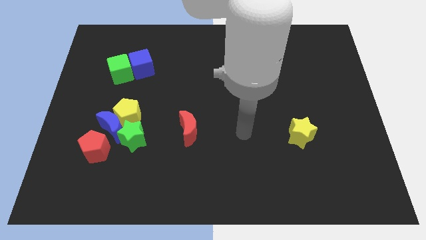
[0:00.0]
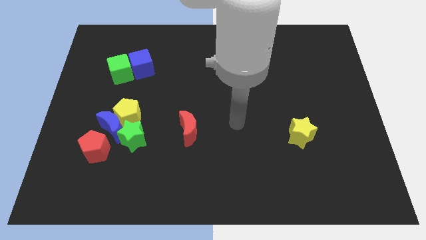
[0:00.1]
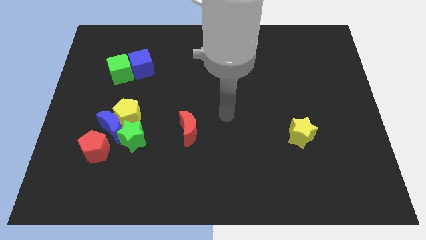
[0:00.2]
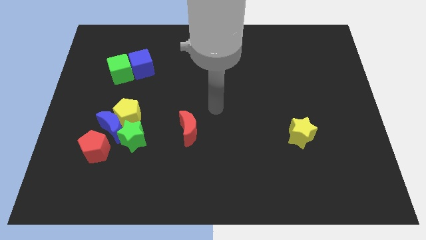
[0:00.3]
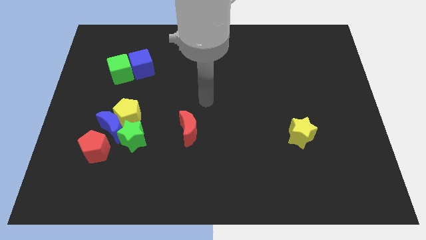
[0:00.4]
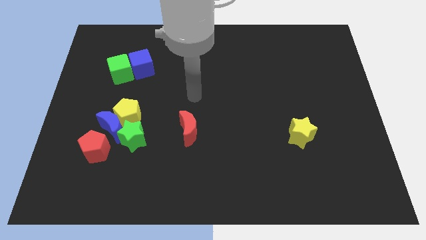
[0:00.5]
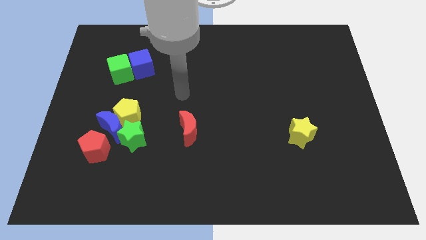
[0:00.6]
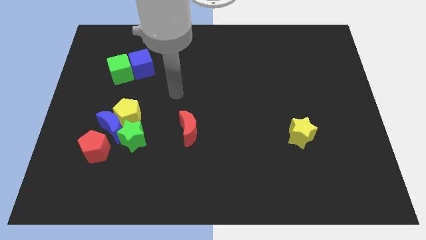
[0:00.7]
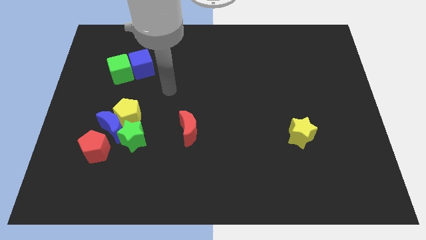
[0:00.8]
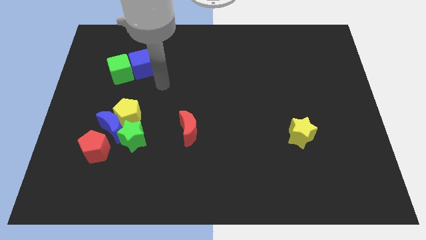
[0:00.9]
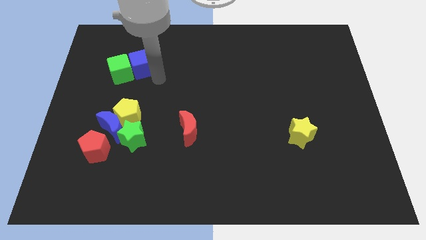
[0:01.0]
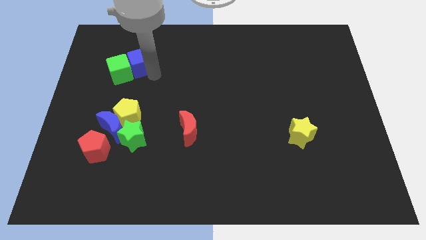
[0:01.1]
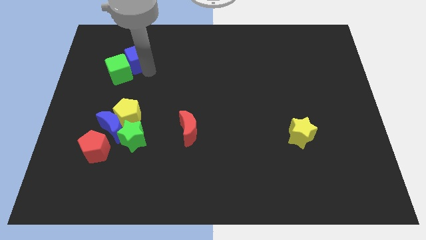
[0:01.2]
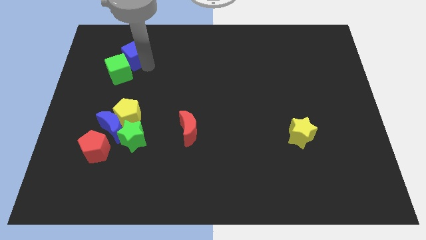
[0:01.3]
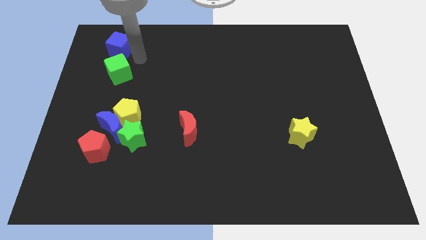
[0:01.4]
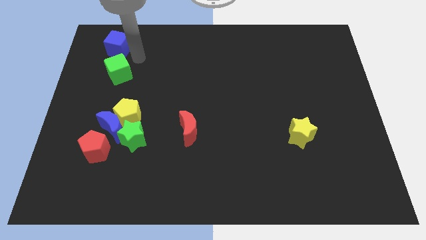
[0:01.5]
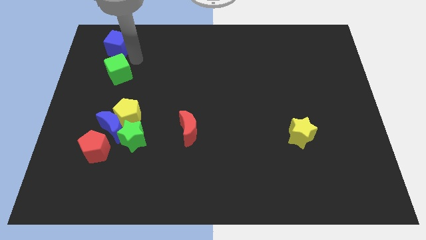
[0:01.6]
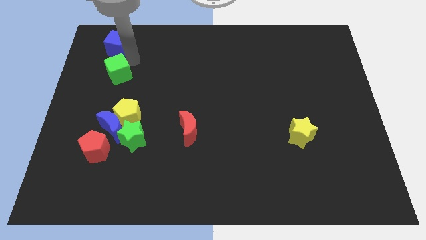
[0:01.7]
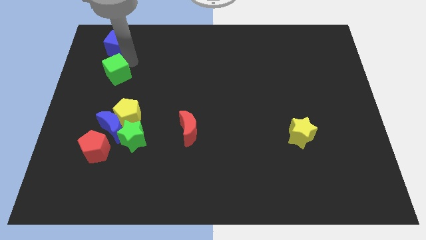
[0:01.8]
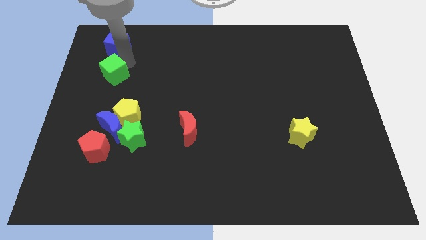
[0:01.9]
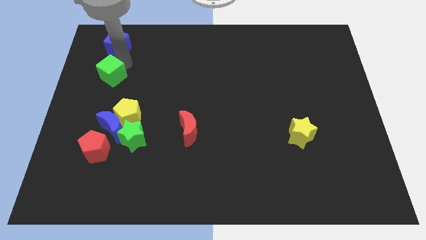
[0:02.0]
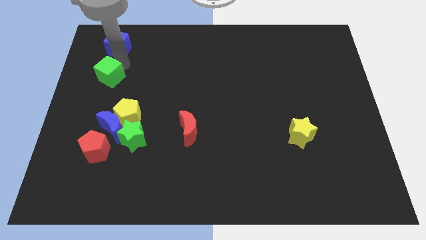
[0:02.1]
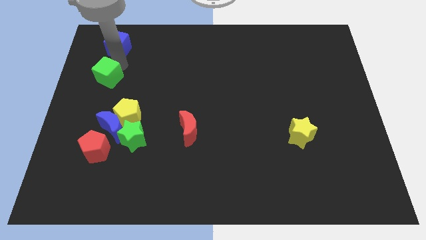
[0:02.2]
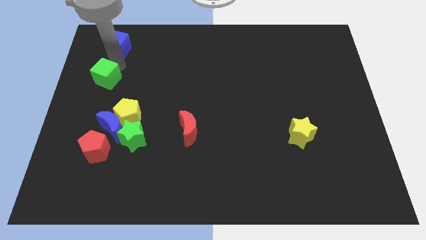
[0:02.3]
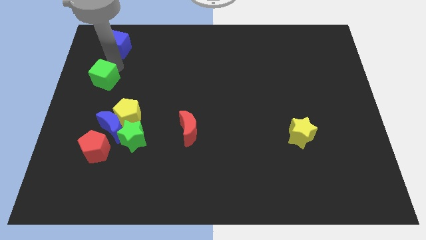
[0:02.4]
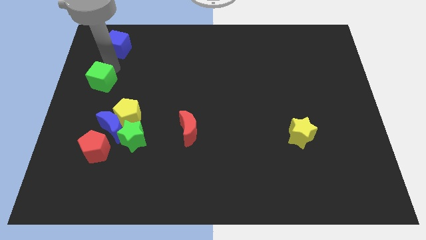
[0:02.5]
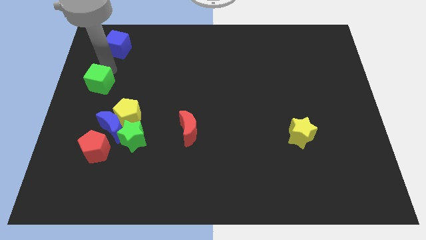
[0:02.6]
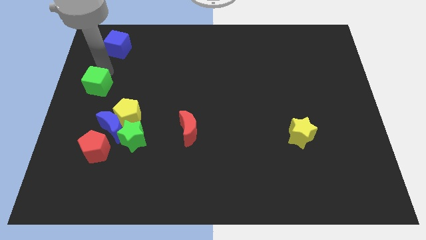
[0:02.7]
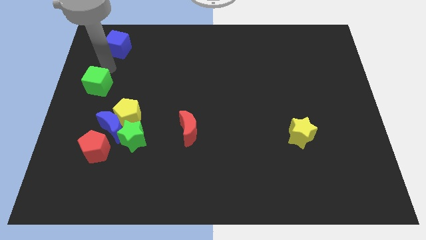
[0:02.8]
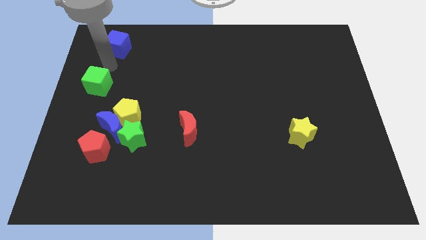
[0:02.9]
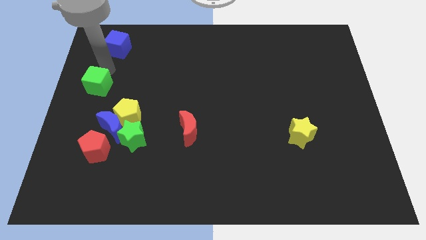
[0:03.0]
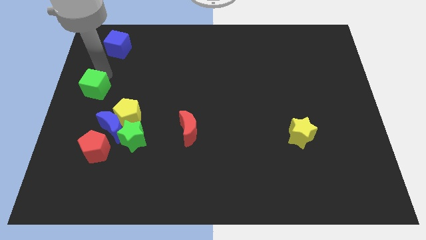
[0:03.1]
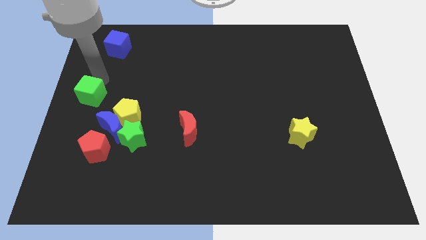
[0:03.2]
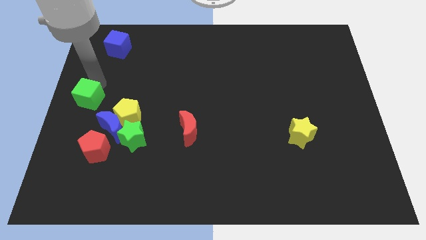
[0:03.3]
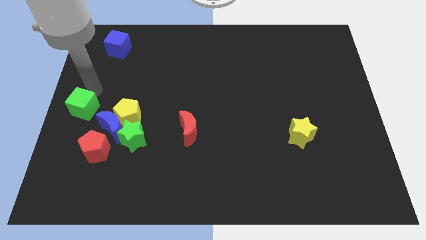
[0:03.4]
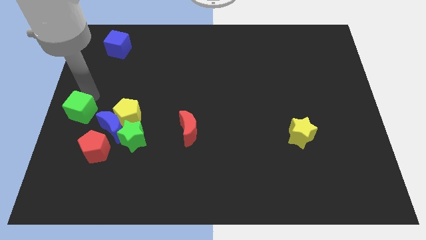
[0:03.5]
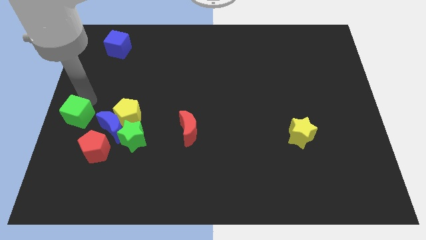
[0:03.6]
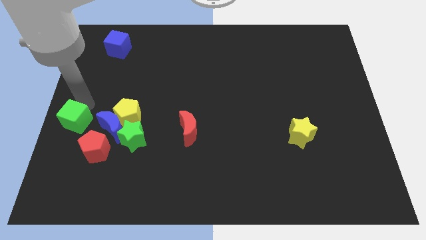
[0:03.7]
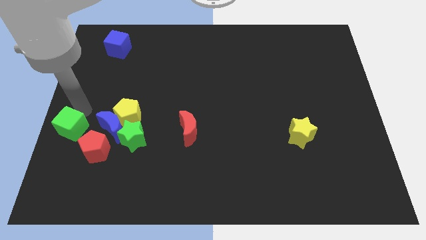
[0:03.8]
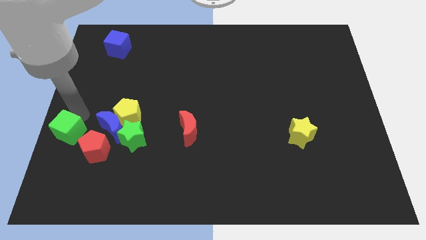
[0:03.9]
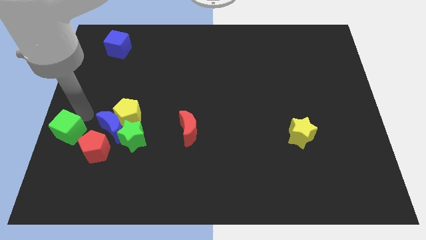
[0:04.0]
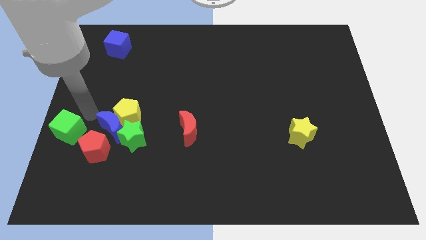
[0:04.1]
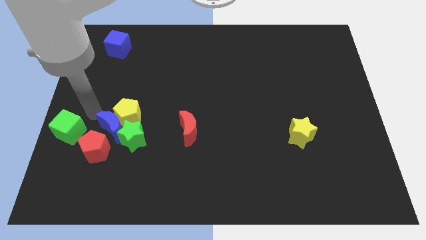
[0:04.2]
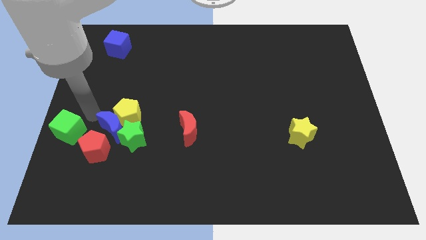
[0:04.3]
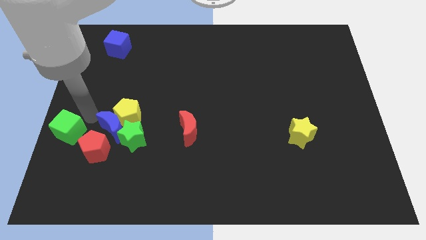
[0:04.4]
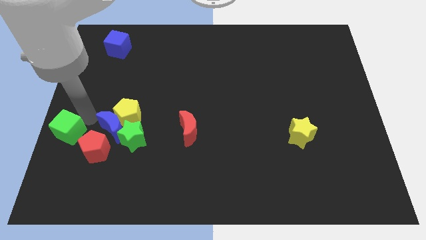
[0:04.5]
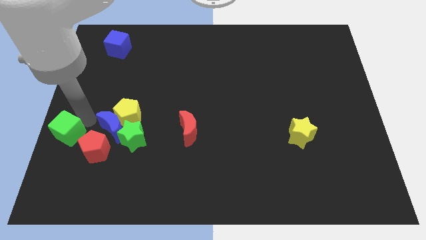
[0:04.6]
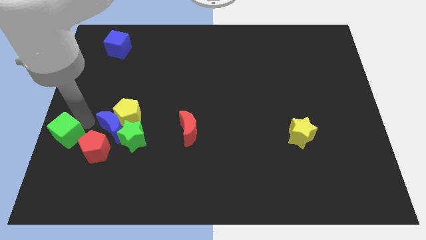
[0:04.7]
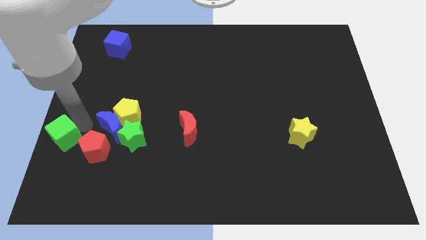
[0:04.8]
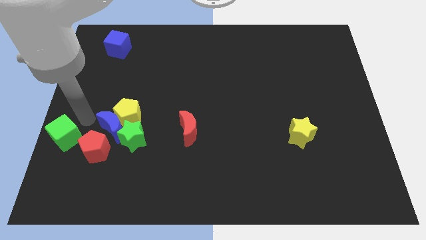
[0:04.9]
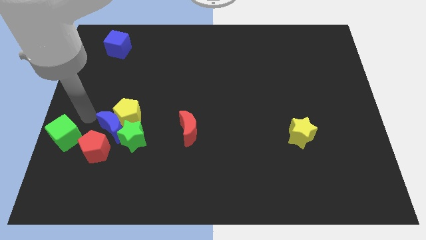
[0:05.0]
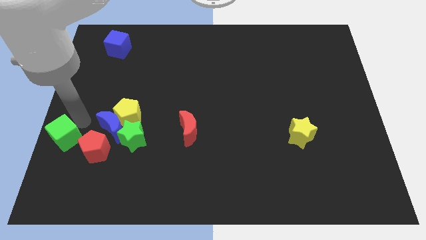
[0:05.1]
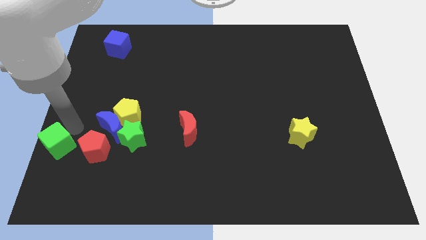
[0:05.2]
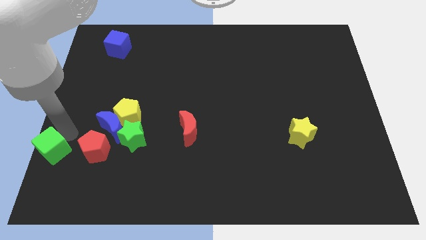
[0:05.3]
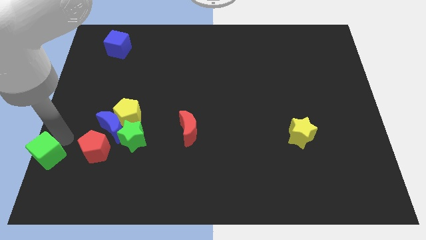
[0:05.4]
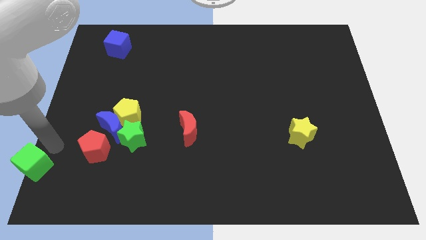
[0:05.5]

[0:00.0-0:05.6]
put the green cube to the bottom left

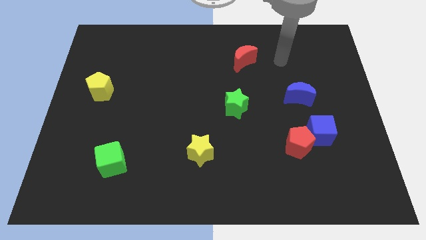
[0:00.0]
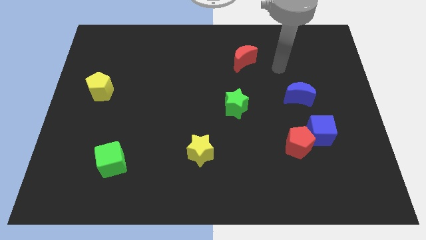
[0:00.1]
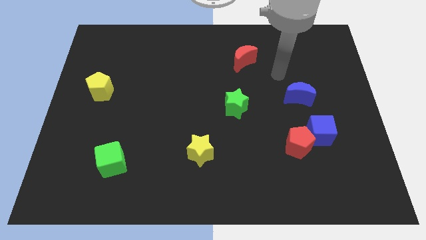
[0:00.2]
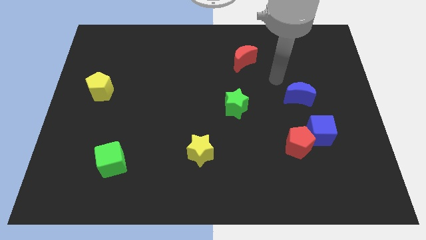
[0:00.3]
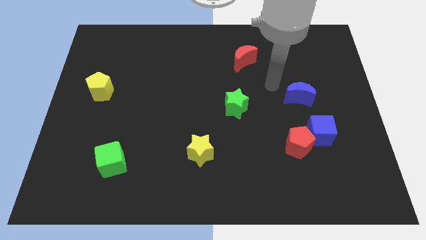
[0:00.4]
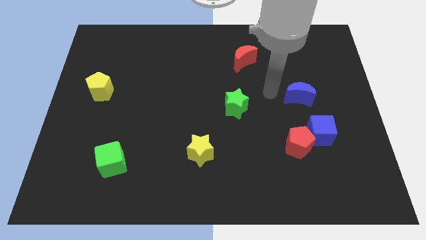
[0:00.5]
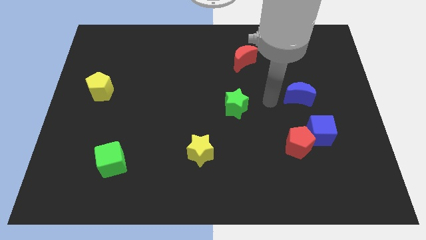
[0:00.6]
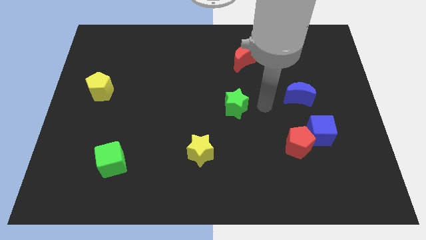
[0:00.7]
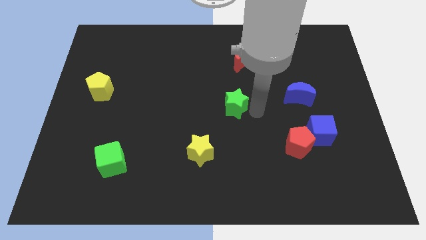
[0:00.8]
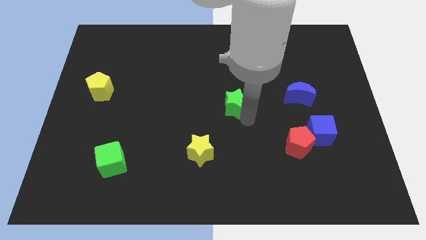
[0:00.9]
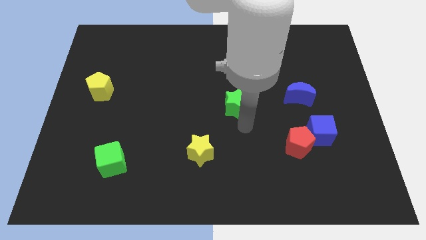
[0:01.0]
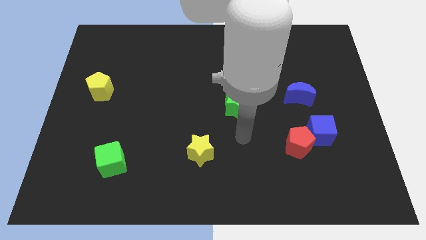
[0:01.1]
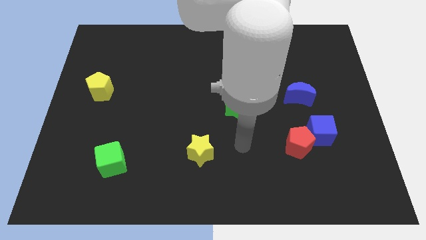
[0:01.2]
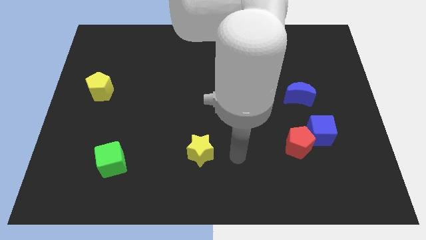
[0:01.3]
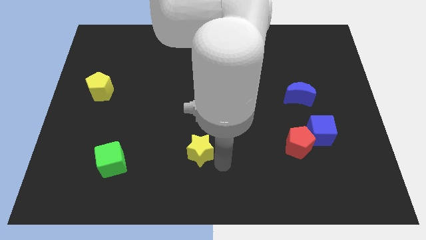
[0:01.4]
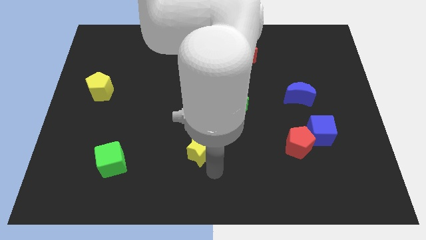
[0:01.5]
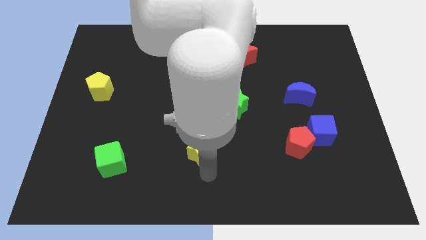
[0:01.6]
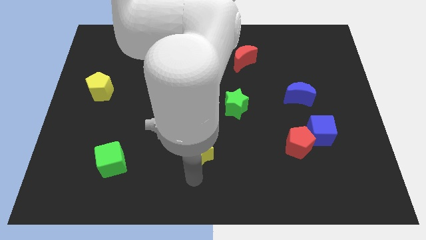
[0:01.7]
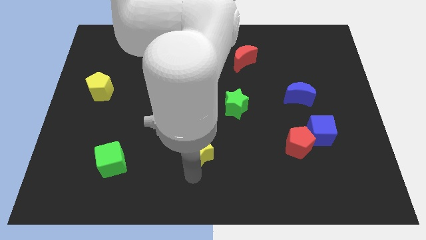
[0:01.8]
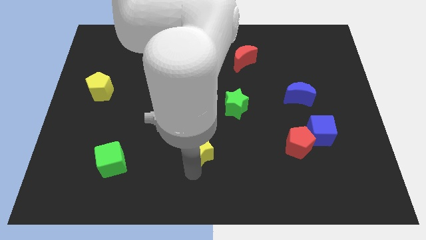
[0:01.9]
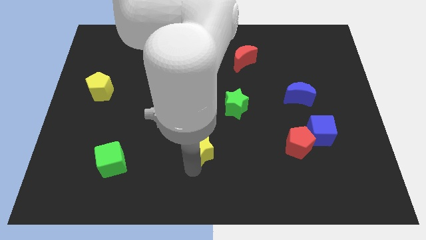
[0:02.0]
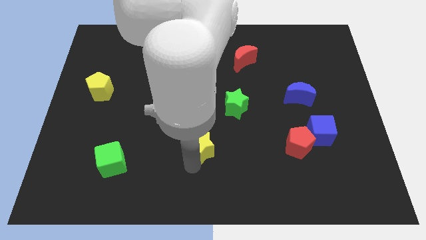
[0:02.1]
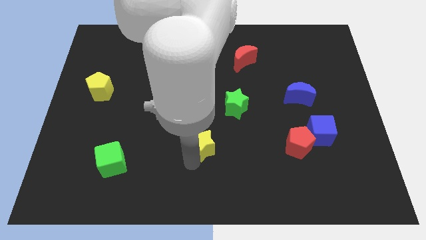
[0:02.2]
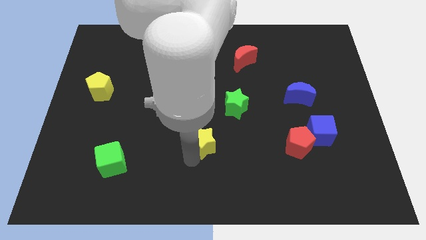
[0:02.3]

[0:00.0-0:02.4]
move the yellow star to the center
